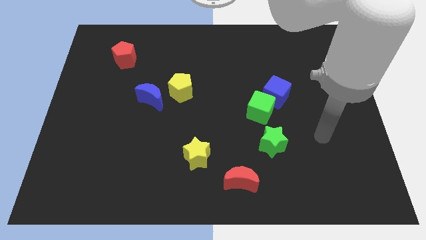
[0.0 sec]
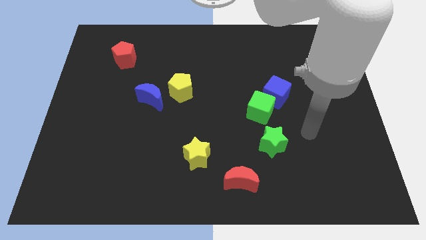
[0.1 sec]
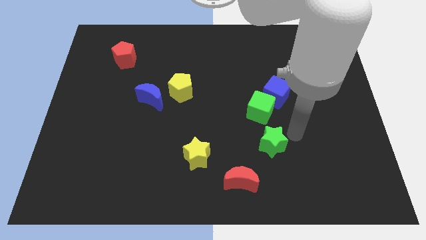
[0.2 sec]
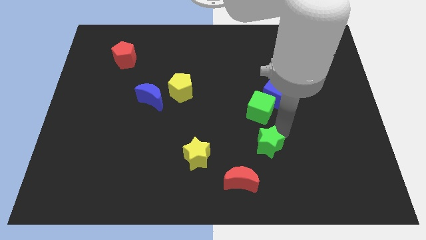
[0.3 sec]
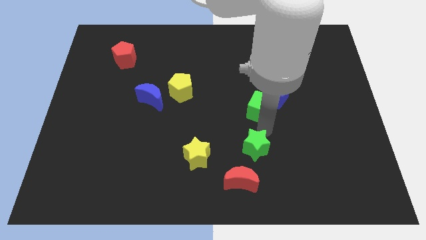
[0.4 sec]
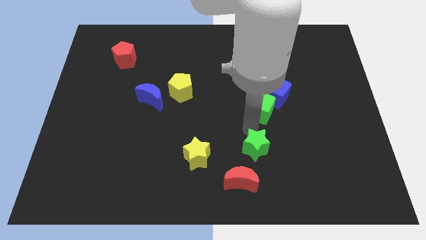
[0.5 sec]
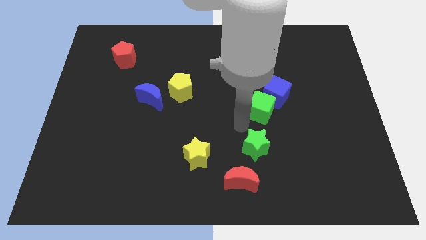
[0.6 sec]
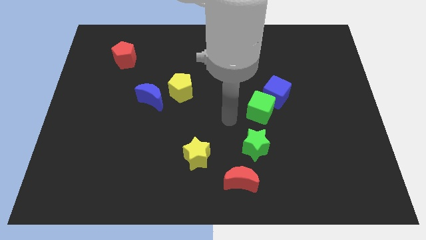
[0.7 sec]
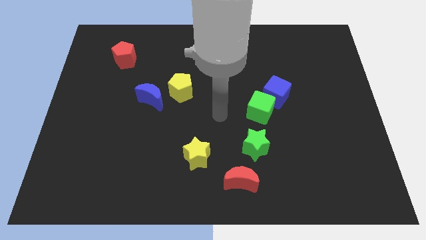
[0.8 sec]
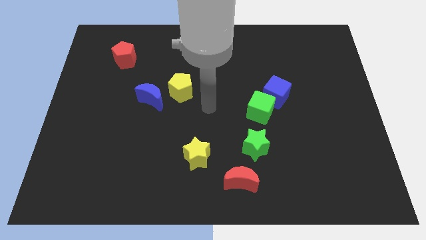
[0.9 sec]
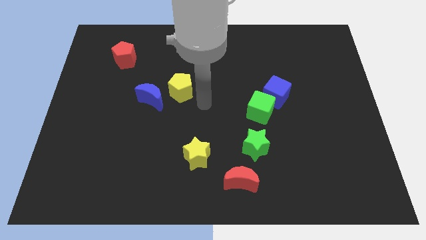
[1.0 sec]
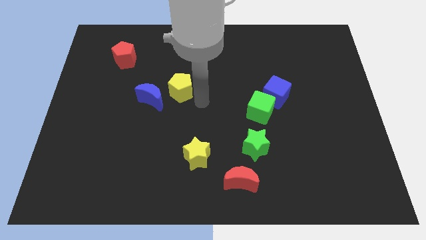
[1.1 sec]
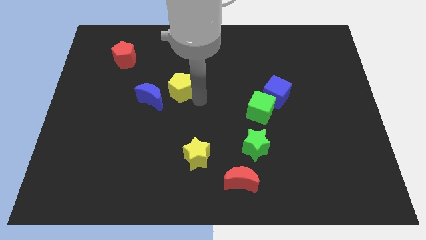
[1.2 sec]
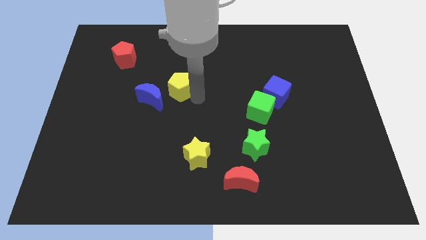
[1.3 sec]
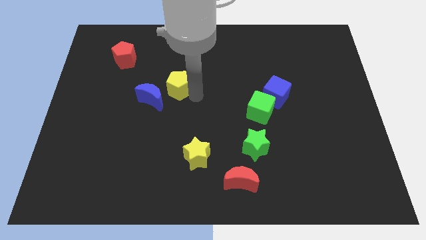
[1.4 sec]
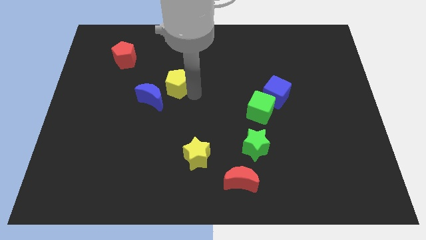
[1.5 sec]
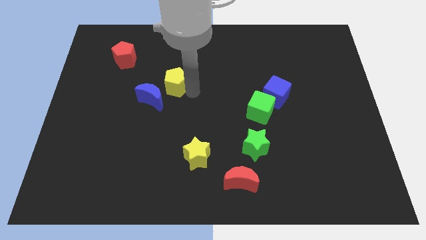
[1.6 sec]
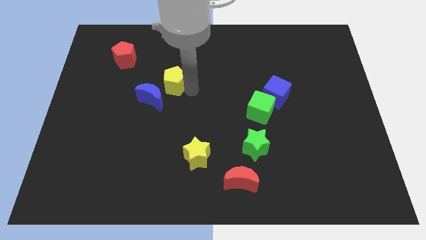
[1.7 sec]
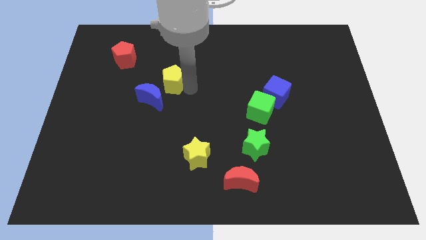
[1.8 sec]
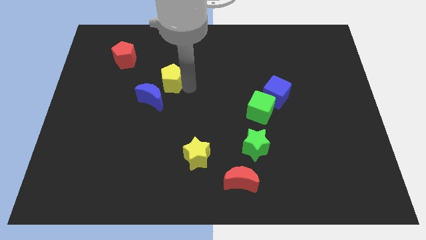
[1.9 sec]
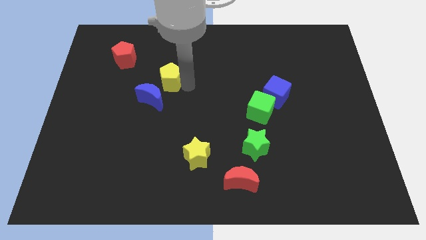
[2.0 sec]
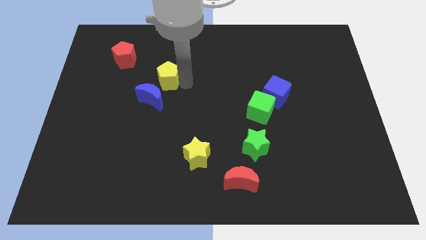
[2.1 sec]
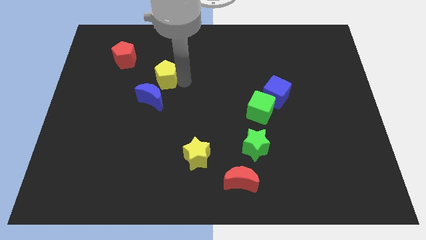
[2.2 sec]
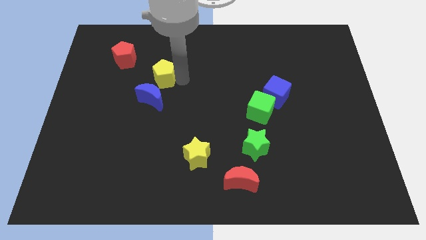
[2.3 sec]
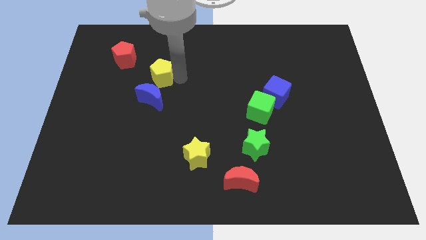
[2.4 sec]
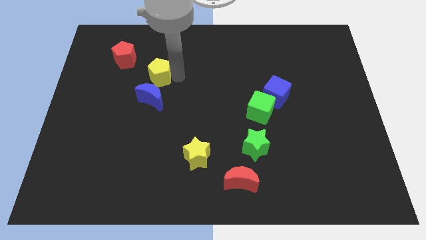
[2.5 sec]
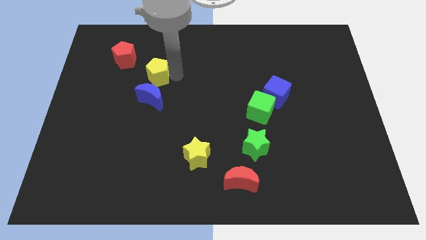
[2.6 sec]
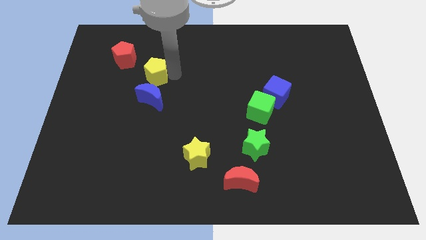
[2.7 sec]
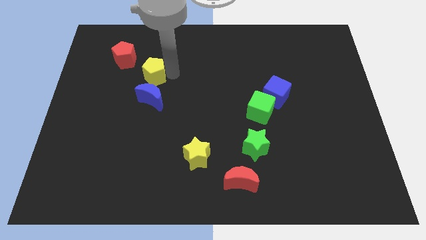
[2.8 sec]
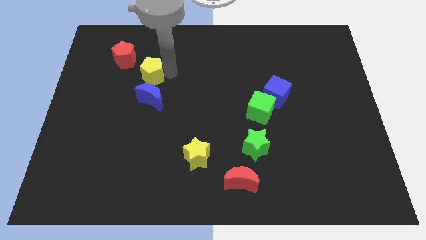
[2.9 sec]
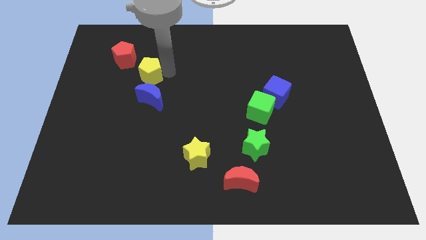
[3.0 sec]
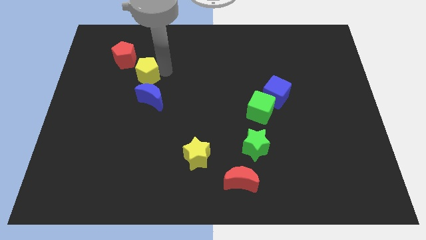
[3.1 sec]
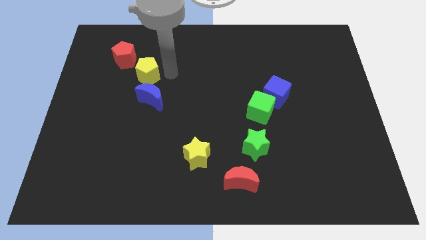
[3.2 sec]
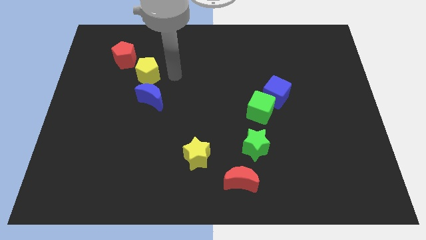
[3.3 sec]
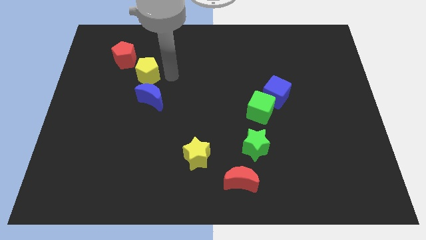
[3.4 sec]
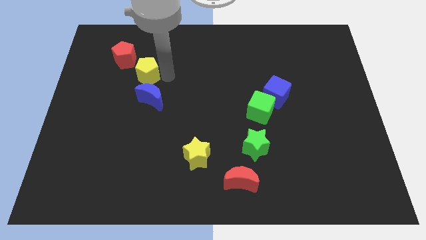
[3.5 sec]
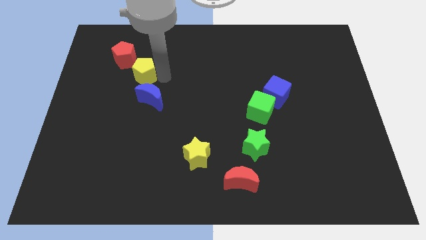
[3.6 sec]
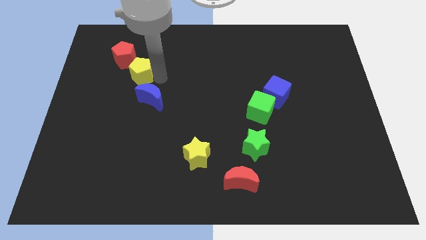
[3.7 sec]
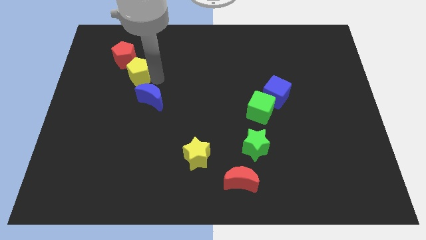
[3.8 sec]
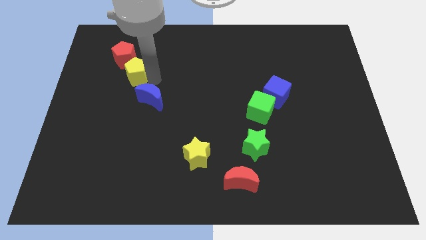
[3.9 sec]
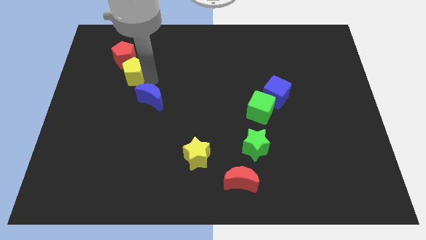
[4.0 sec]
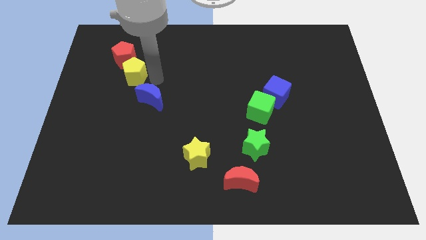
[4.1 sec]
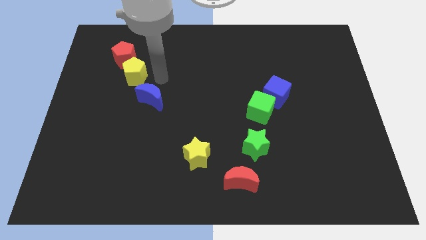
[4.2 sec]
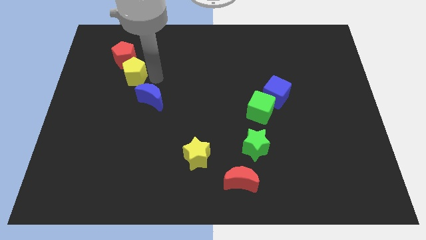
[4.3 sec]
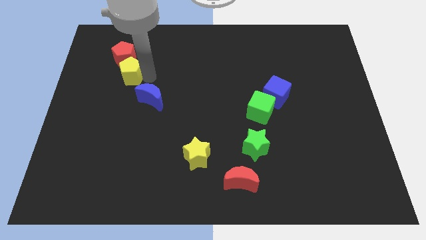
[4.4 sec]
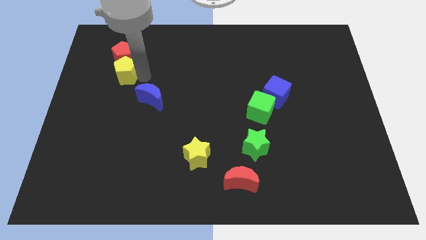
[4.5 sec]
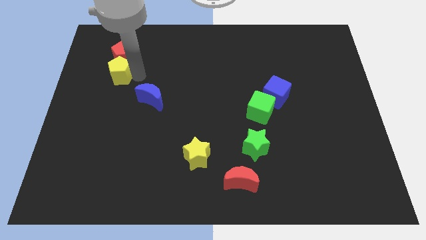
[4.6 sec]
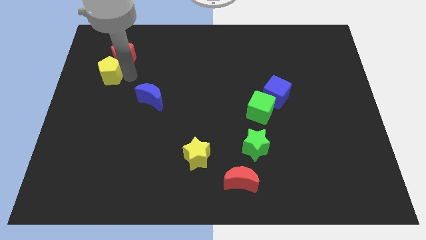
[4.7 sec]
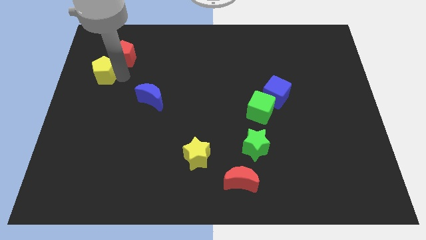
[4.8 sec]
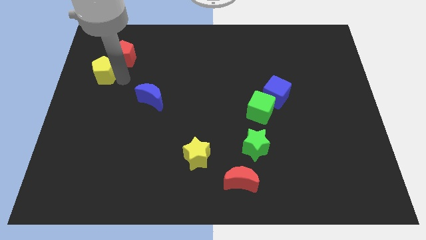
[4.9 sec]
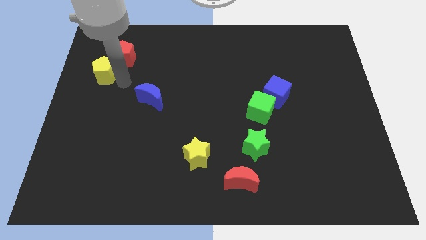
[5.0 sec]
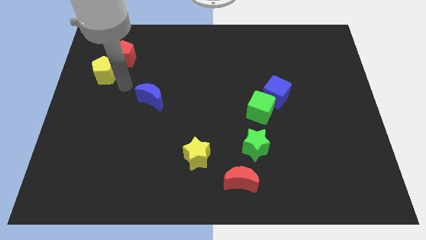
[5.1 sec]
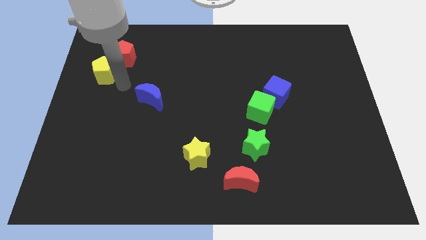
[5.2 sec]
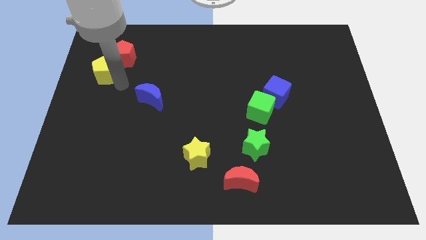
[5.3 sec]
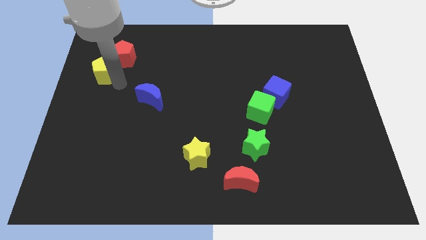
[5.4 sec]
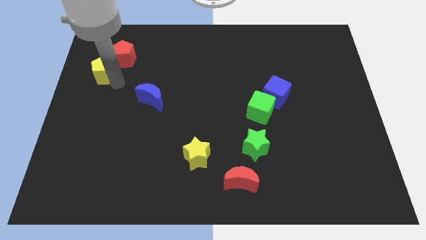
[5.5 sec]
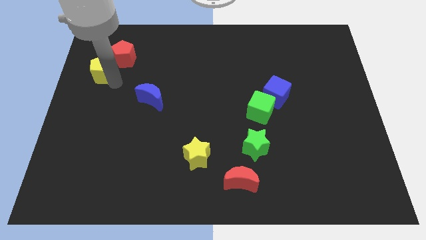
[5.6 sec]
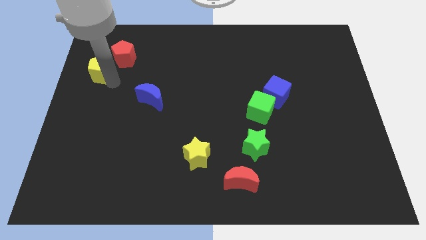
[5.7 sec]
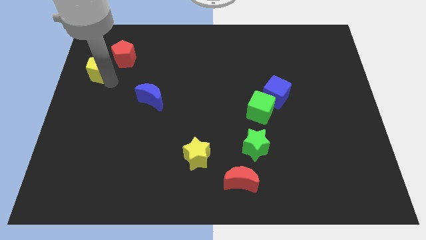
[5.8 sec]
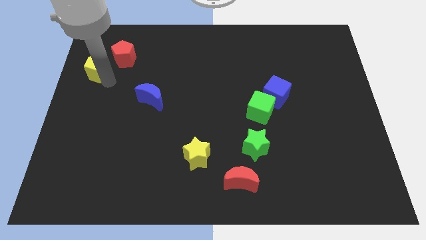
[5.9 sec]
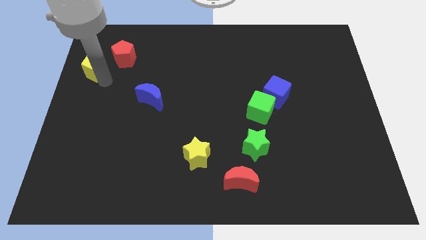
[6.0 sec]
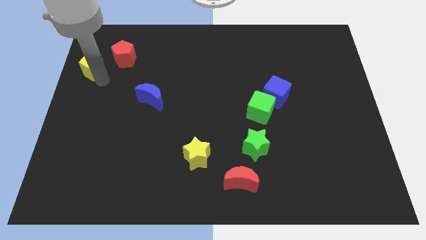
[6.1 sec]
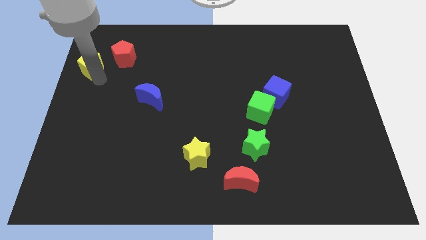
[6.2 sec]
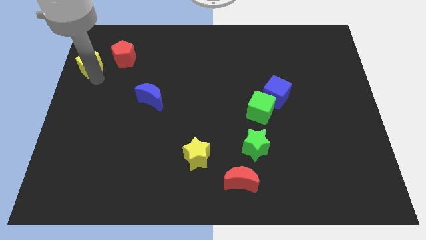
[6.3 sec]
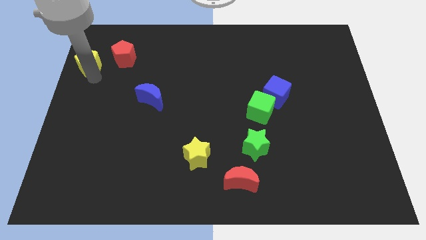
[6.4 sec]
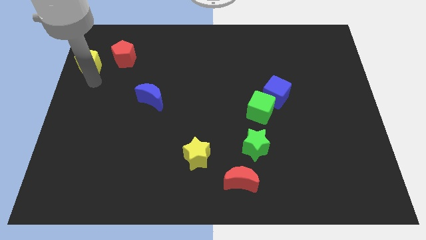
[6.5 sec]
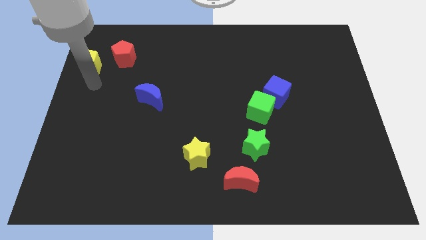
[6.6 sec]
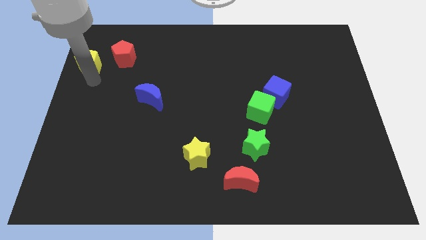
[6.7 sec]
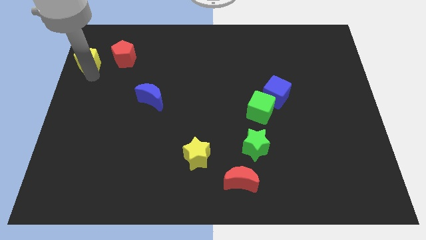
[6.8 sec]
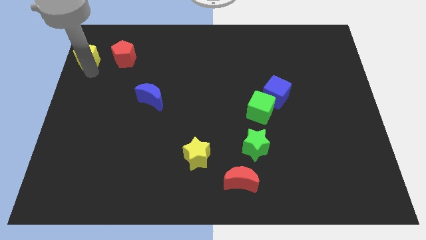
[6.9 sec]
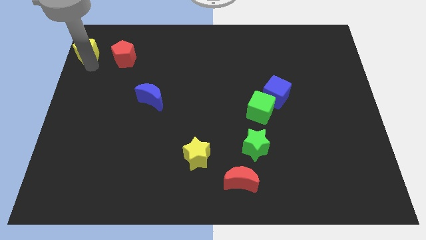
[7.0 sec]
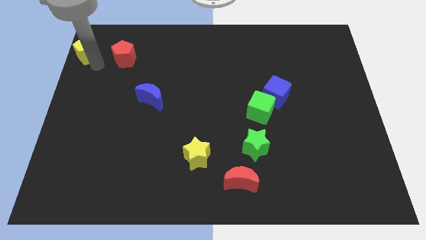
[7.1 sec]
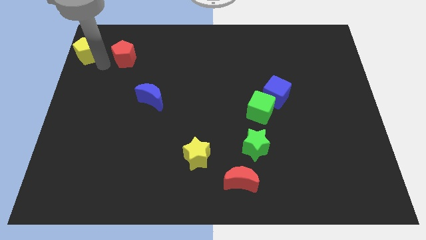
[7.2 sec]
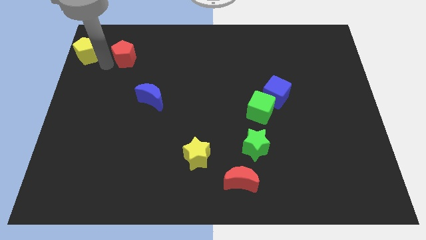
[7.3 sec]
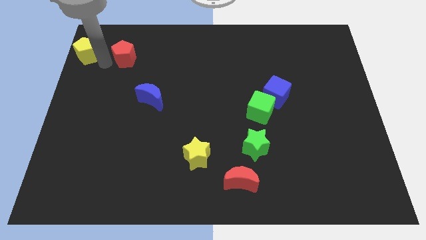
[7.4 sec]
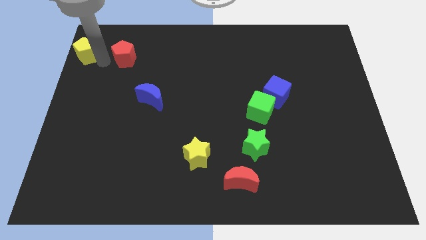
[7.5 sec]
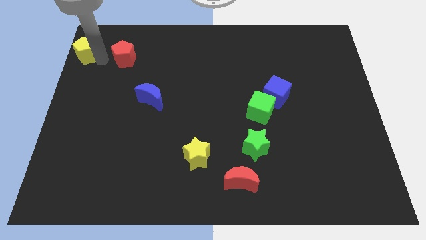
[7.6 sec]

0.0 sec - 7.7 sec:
move the yellow pentagon to the top left
